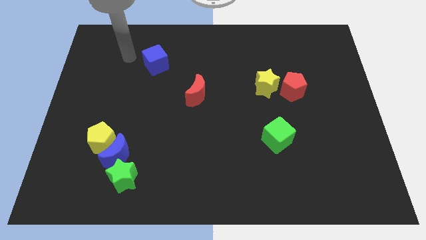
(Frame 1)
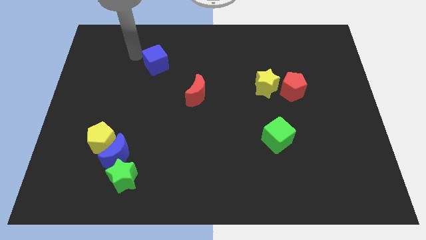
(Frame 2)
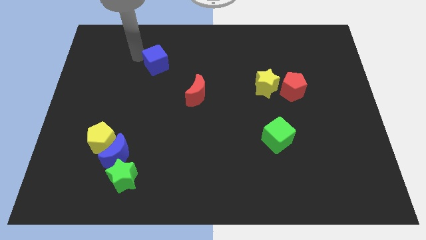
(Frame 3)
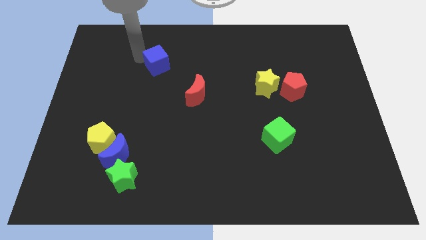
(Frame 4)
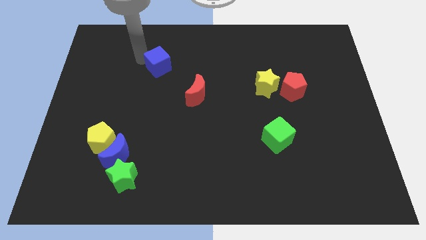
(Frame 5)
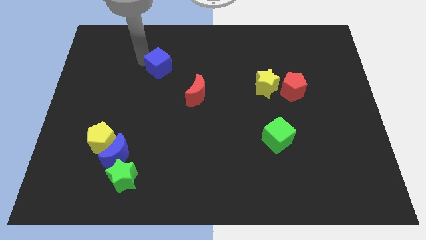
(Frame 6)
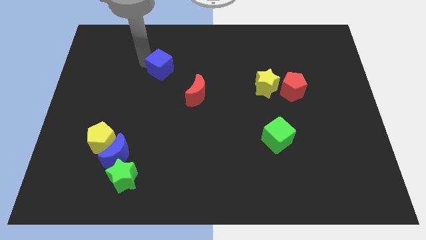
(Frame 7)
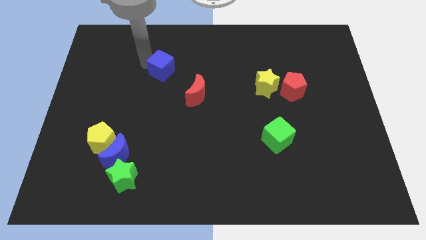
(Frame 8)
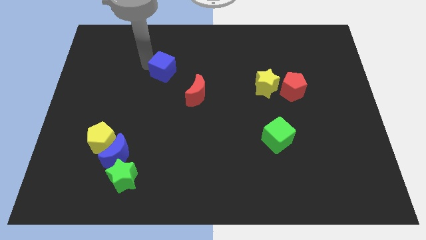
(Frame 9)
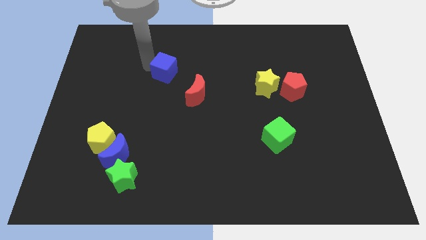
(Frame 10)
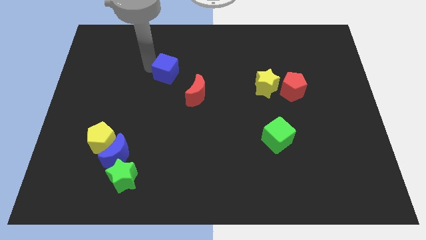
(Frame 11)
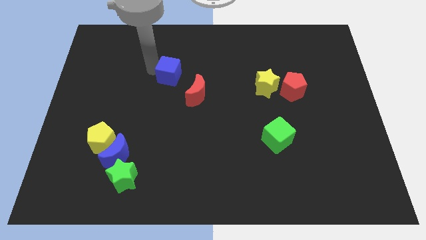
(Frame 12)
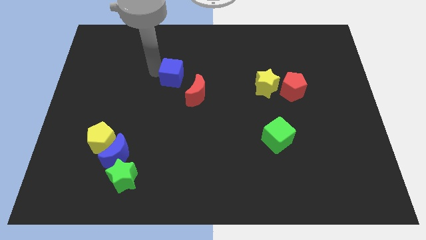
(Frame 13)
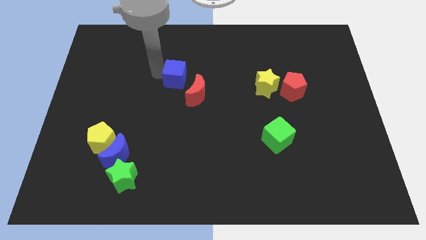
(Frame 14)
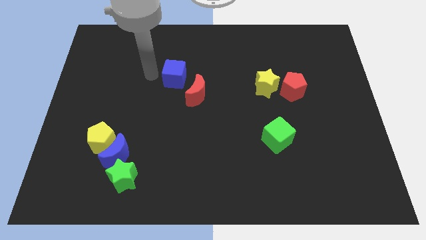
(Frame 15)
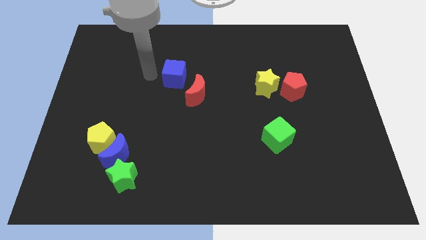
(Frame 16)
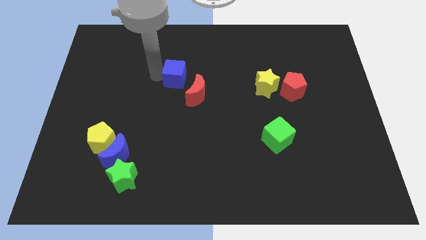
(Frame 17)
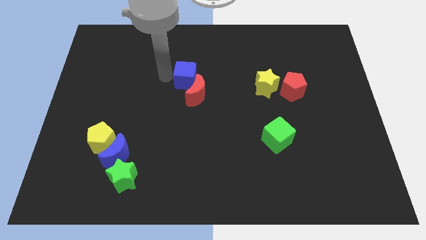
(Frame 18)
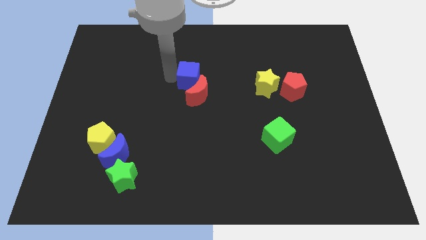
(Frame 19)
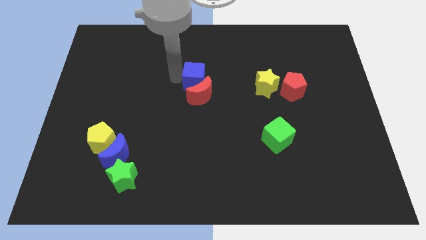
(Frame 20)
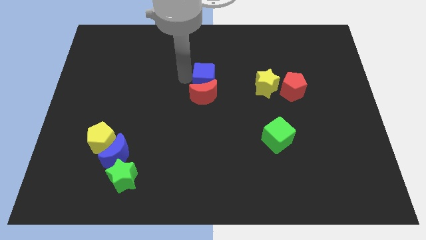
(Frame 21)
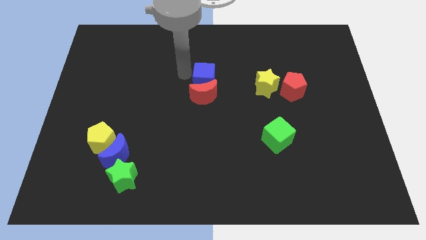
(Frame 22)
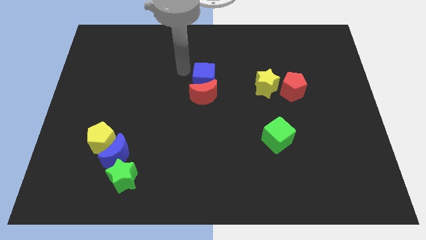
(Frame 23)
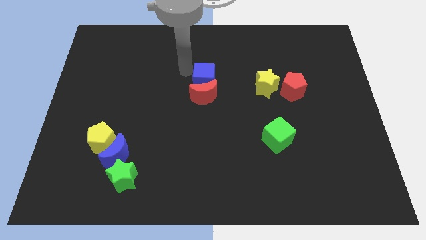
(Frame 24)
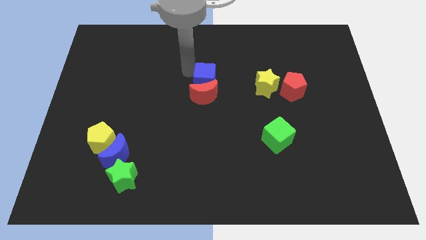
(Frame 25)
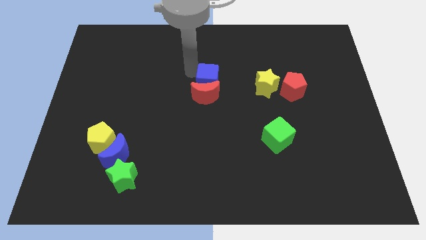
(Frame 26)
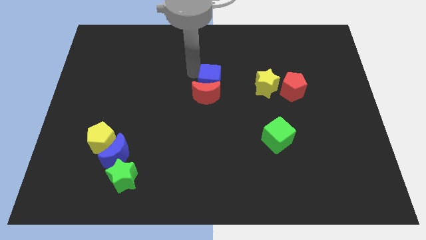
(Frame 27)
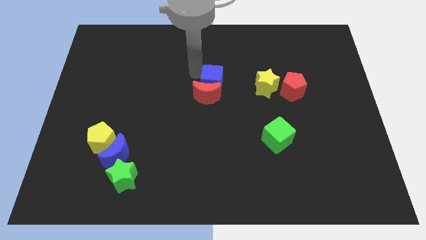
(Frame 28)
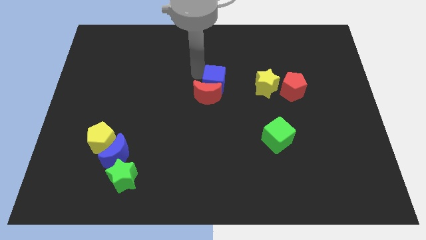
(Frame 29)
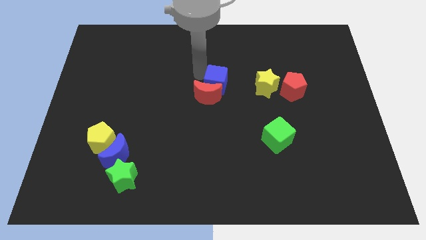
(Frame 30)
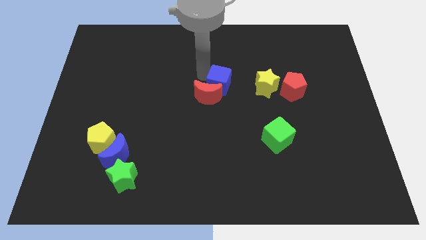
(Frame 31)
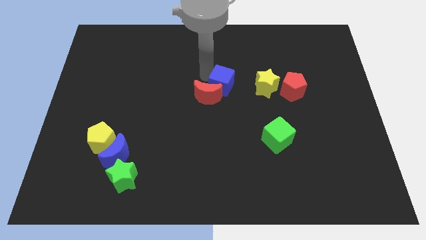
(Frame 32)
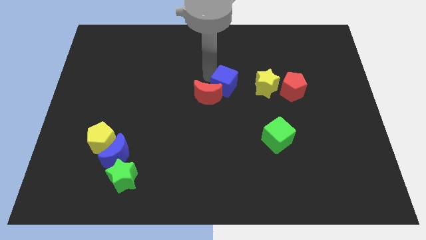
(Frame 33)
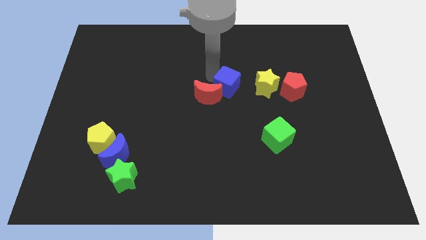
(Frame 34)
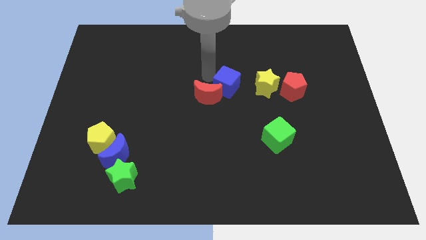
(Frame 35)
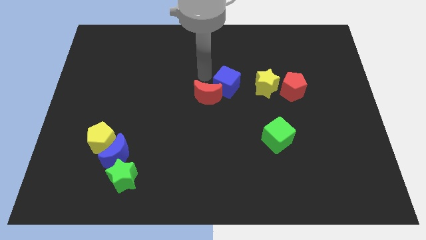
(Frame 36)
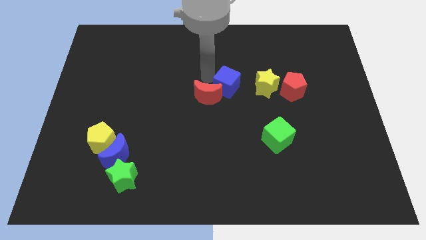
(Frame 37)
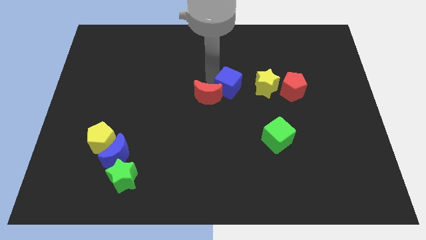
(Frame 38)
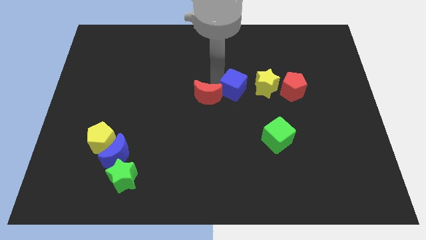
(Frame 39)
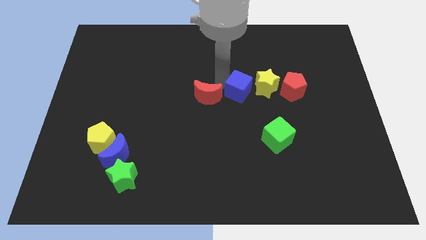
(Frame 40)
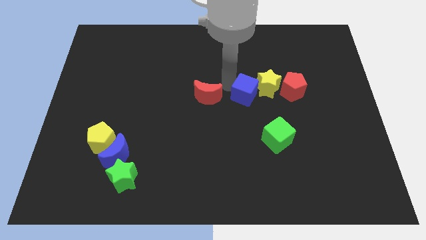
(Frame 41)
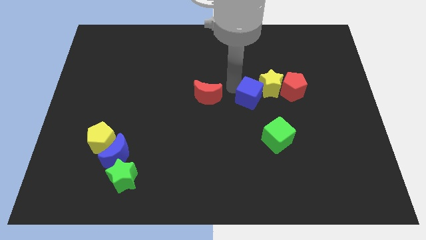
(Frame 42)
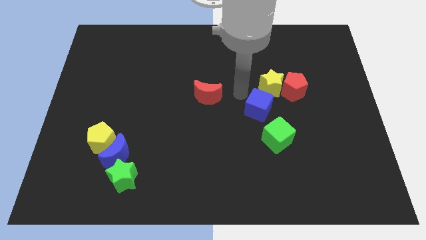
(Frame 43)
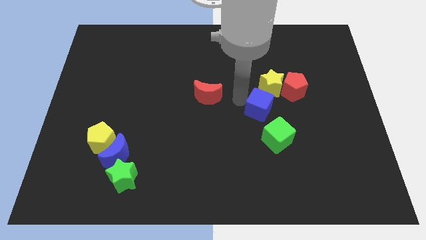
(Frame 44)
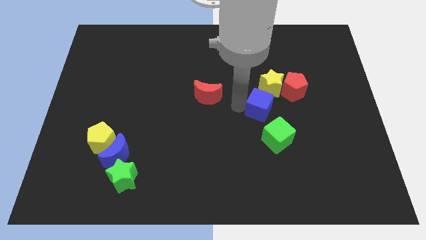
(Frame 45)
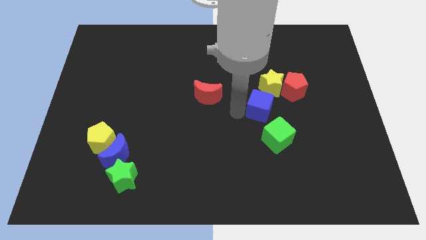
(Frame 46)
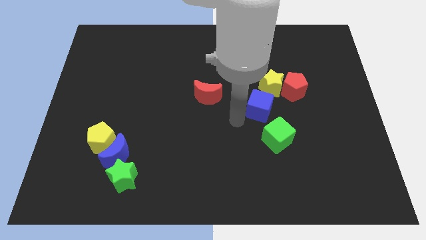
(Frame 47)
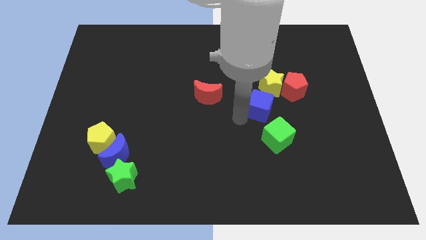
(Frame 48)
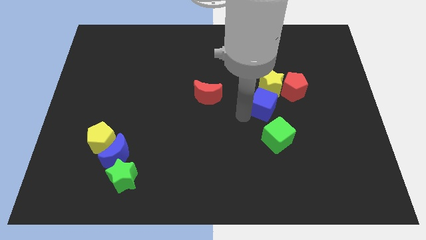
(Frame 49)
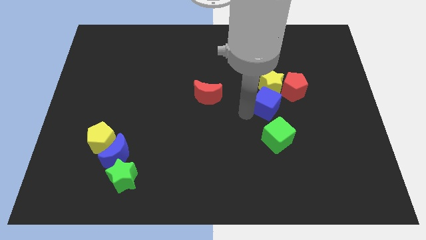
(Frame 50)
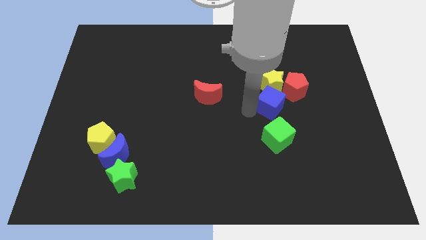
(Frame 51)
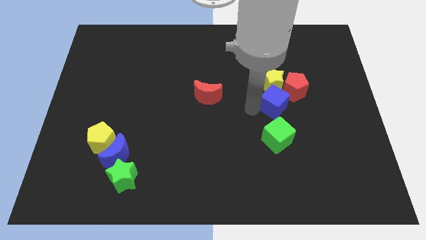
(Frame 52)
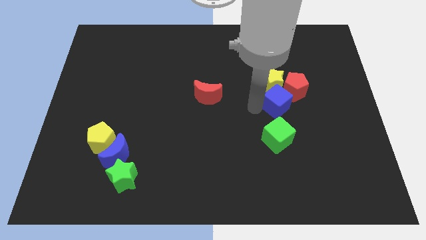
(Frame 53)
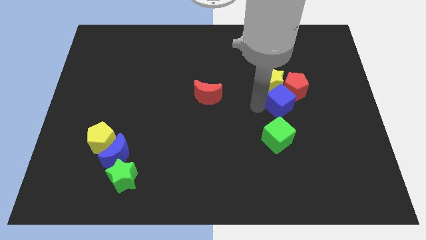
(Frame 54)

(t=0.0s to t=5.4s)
push the blue cube next to the red pentagon

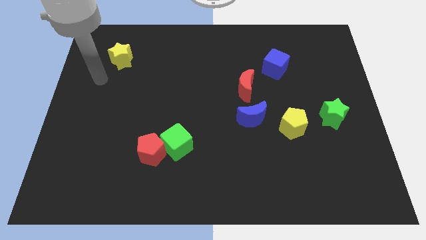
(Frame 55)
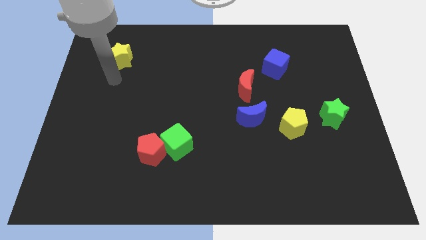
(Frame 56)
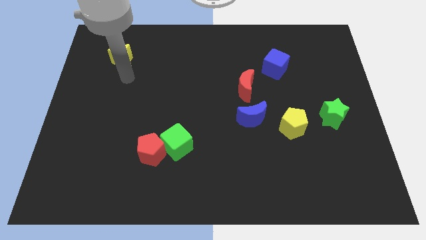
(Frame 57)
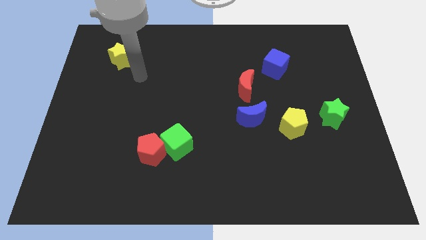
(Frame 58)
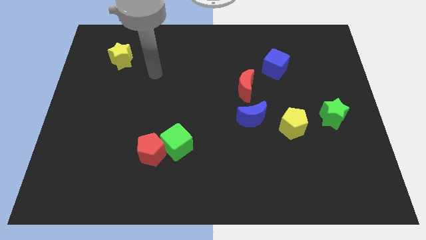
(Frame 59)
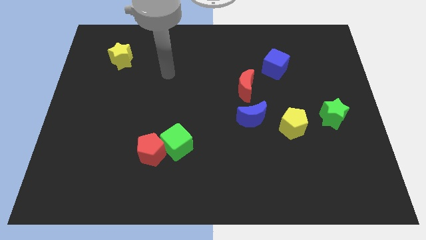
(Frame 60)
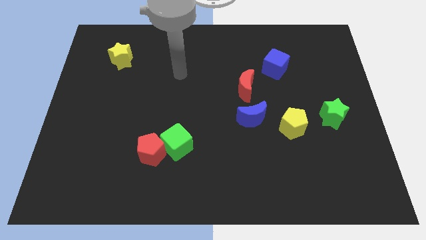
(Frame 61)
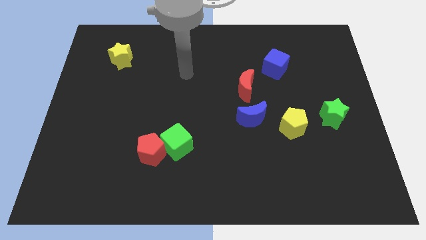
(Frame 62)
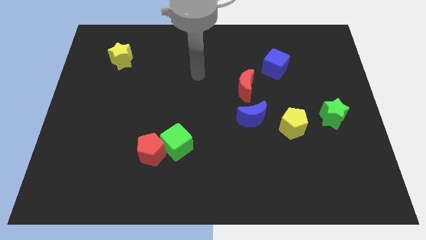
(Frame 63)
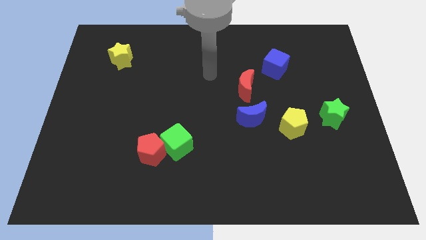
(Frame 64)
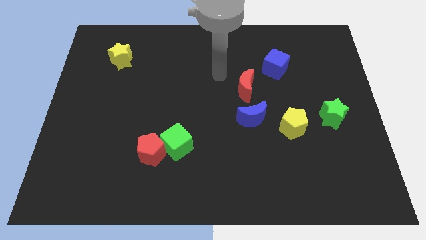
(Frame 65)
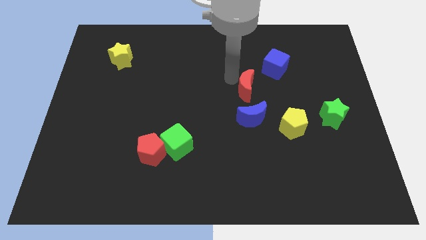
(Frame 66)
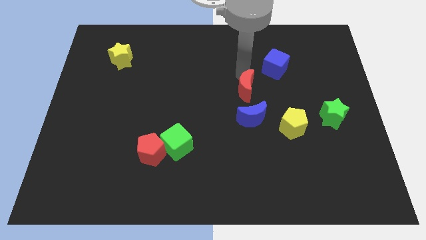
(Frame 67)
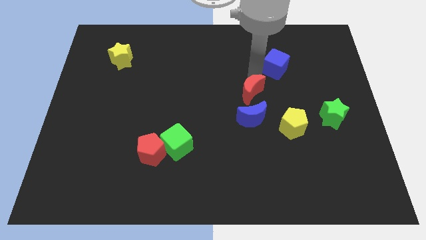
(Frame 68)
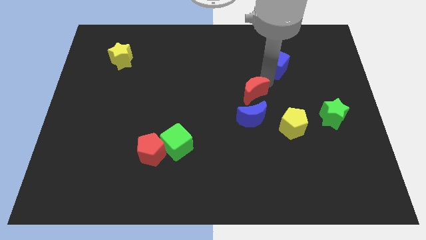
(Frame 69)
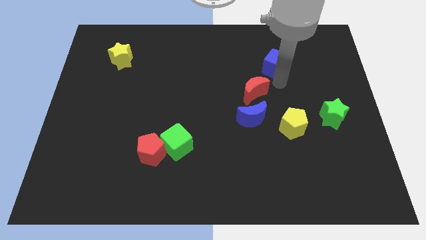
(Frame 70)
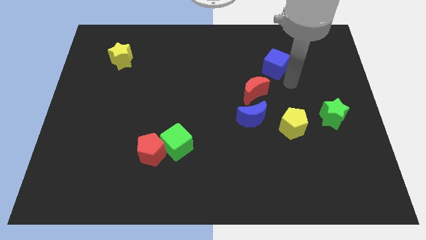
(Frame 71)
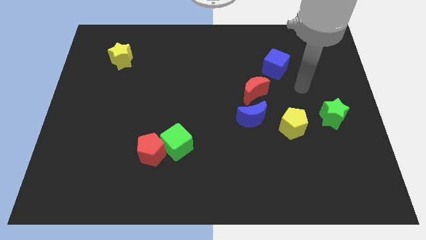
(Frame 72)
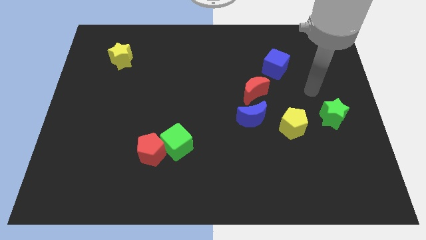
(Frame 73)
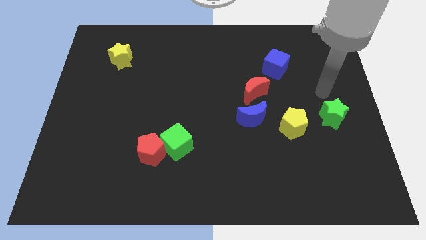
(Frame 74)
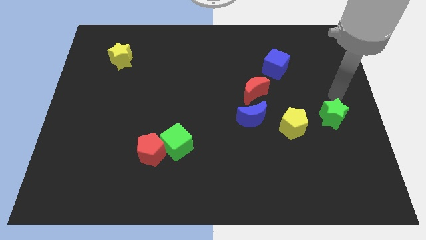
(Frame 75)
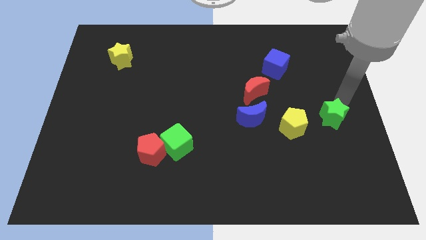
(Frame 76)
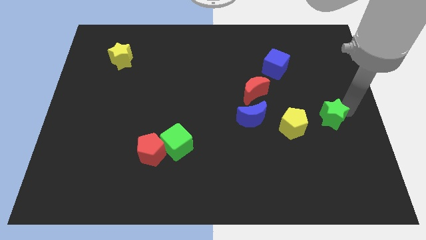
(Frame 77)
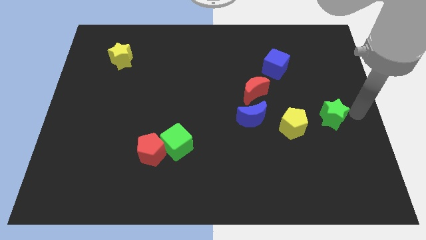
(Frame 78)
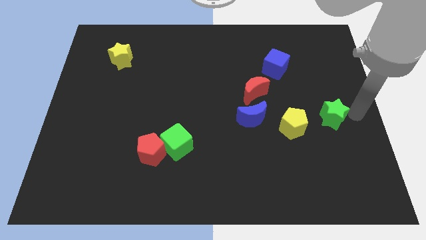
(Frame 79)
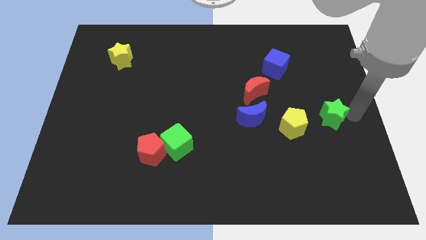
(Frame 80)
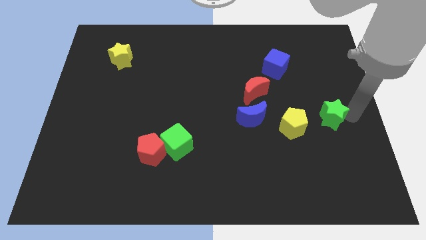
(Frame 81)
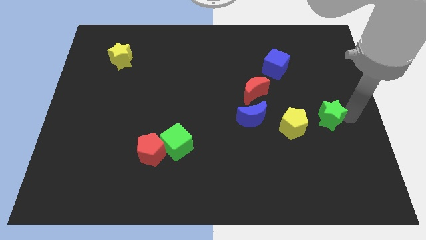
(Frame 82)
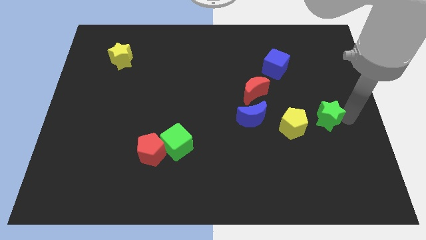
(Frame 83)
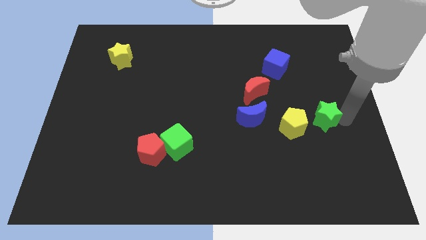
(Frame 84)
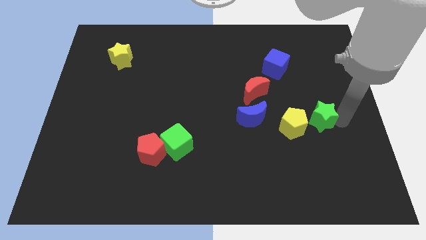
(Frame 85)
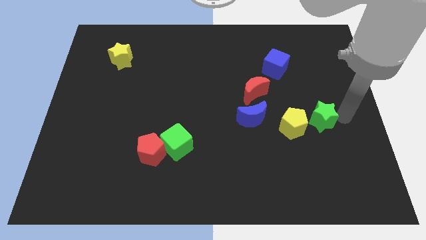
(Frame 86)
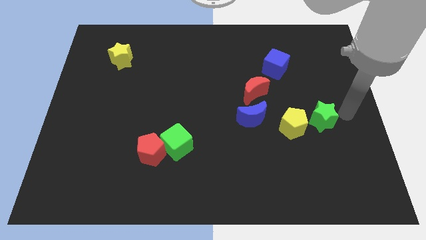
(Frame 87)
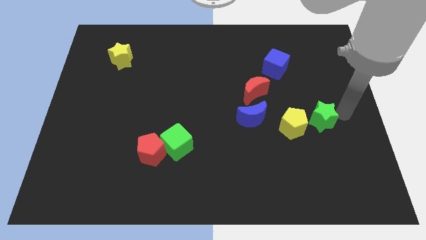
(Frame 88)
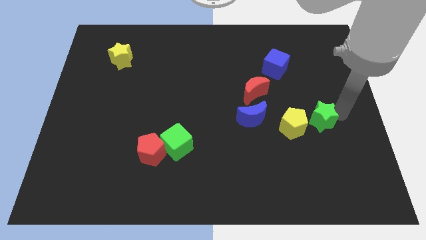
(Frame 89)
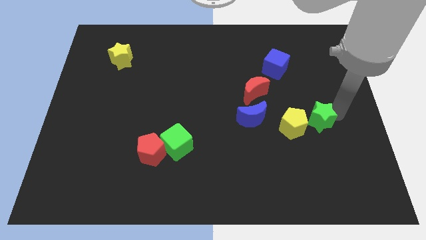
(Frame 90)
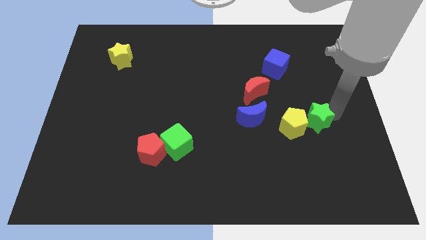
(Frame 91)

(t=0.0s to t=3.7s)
slide the green star next to the yellow pentagon
